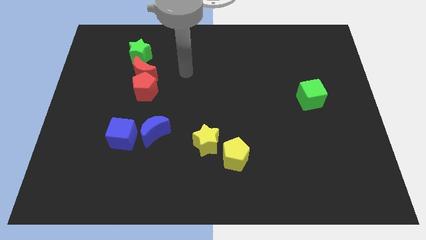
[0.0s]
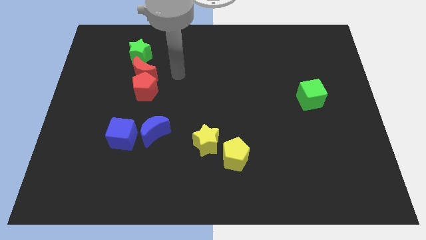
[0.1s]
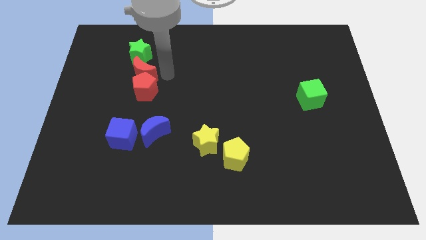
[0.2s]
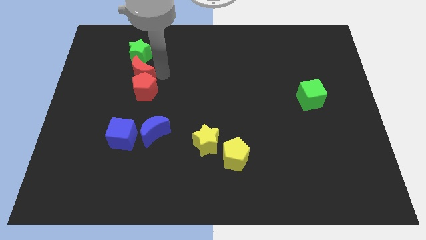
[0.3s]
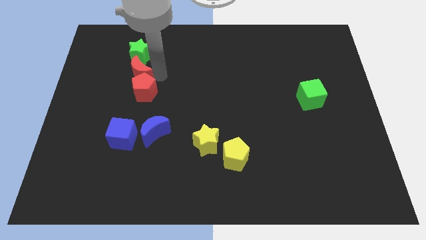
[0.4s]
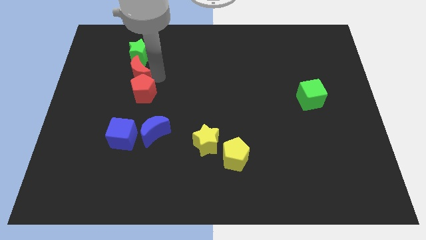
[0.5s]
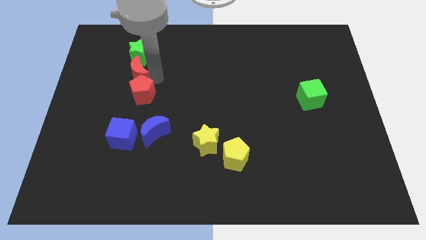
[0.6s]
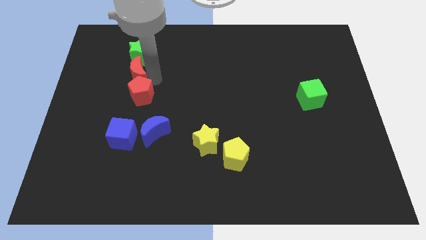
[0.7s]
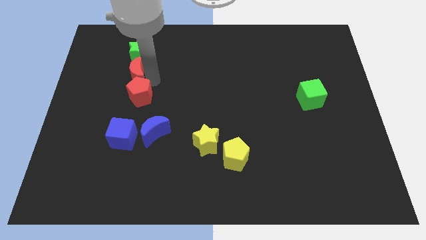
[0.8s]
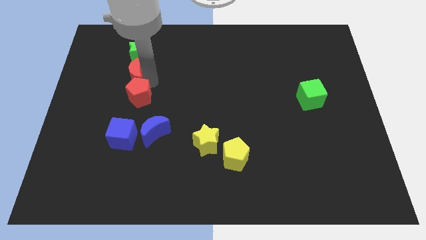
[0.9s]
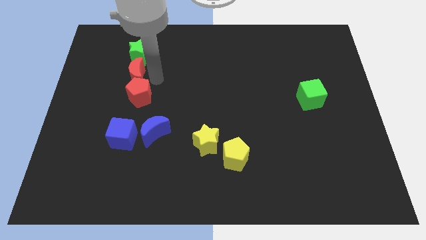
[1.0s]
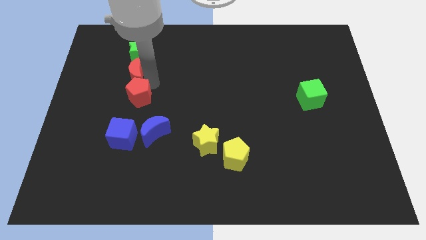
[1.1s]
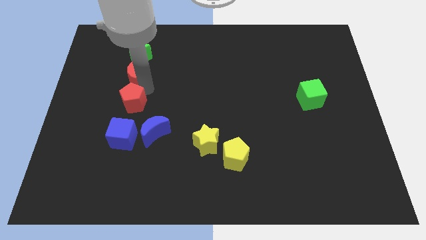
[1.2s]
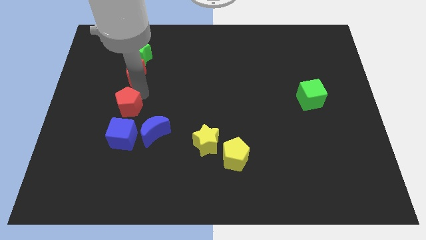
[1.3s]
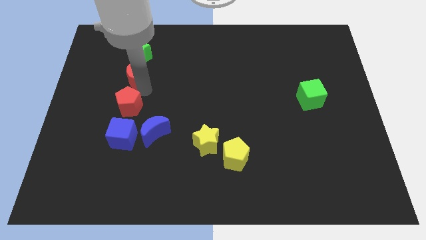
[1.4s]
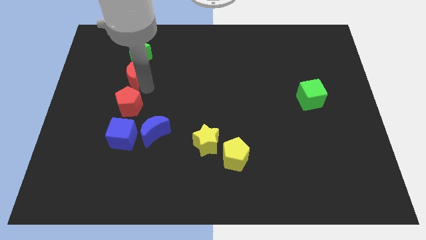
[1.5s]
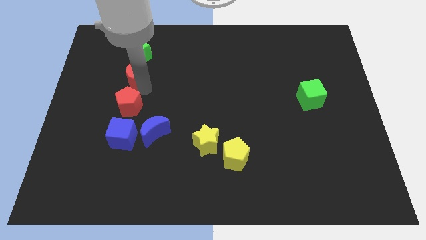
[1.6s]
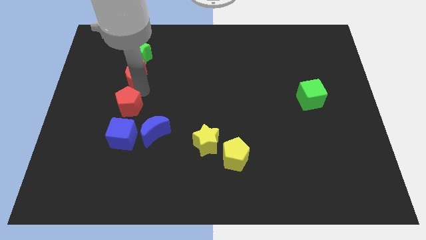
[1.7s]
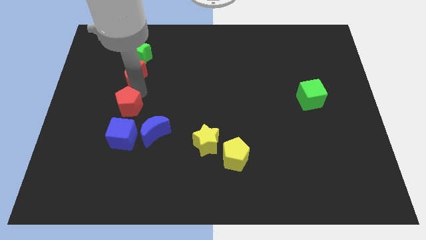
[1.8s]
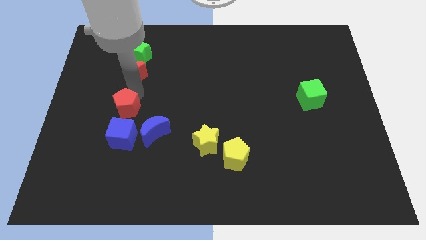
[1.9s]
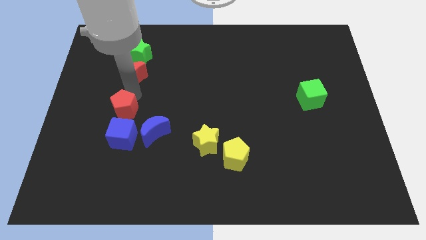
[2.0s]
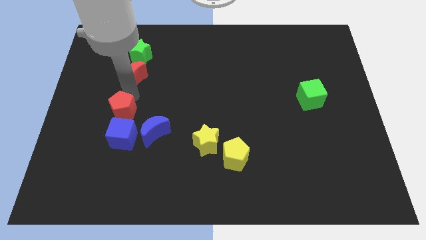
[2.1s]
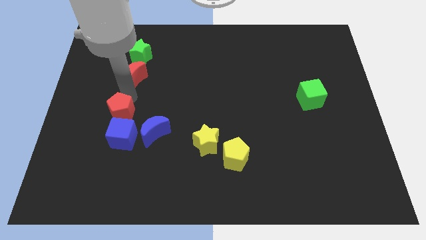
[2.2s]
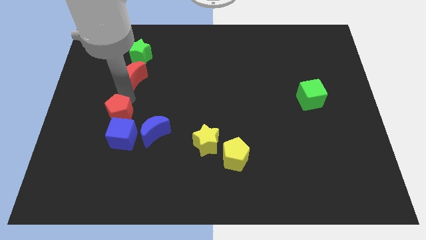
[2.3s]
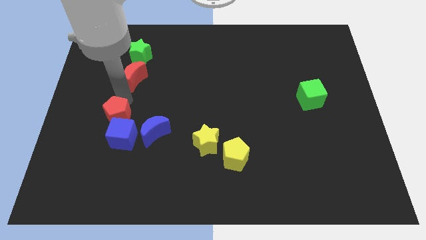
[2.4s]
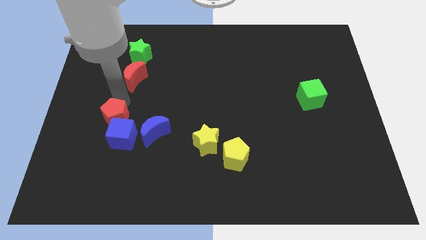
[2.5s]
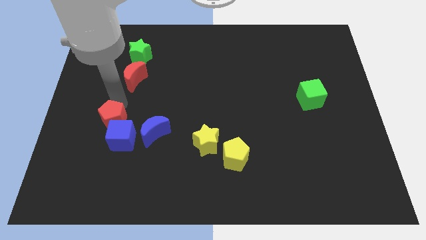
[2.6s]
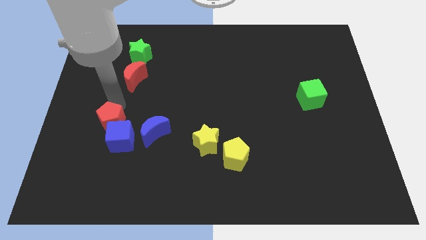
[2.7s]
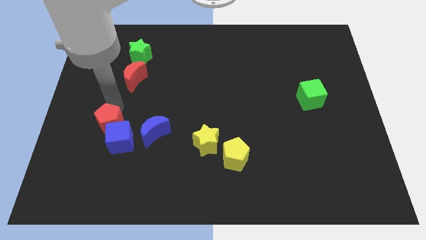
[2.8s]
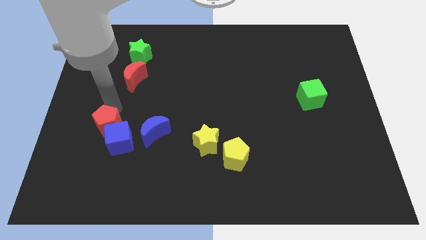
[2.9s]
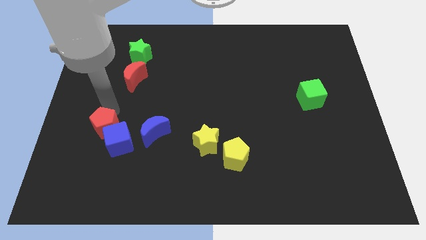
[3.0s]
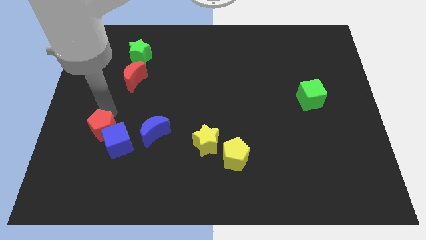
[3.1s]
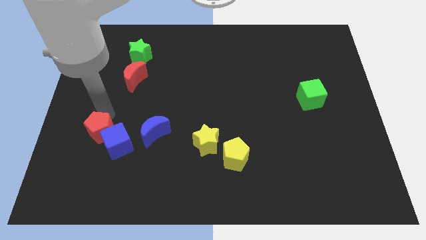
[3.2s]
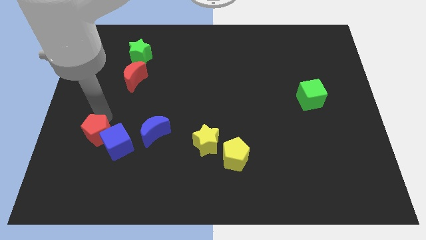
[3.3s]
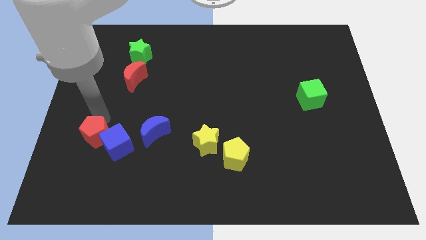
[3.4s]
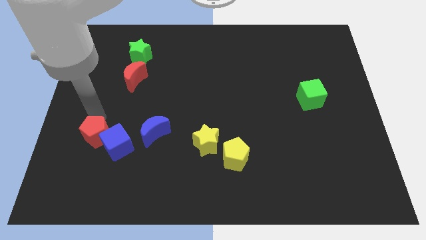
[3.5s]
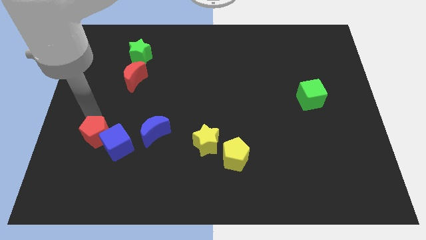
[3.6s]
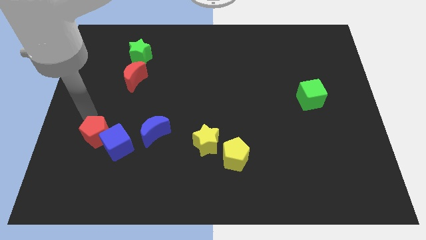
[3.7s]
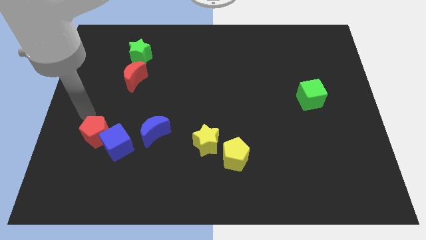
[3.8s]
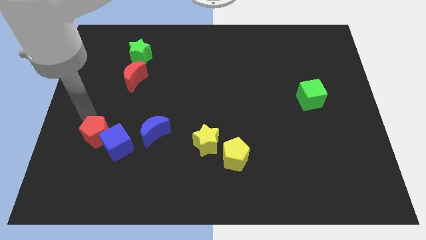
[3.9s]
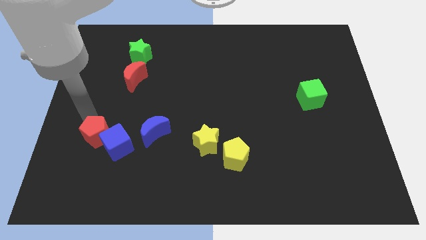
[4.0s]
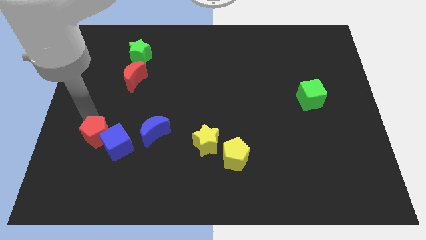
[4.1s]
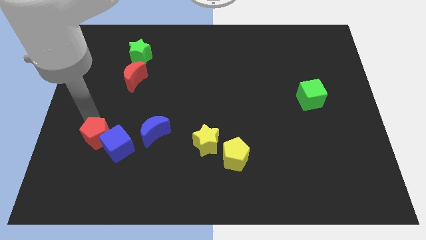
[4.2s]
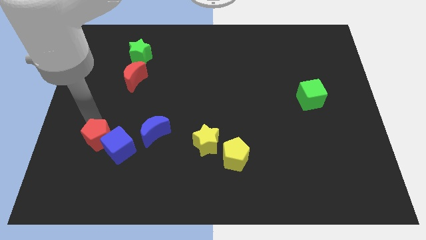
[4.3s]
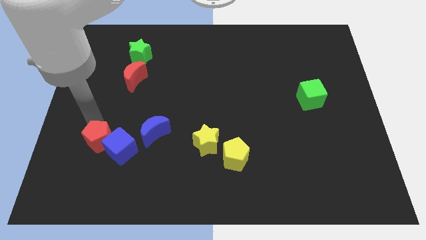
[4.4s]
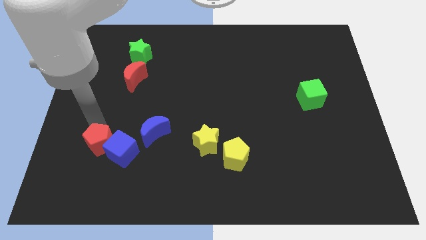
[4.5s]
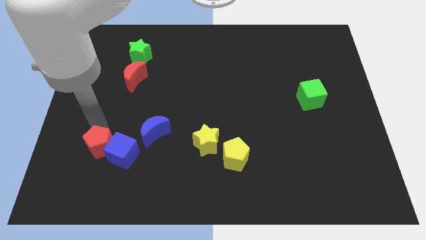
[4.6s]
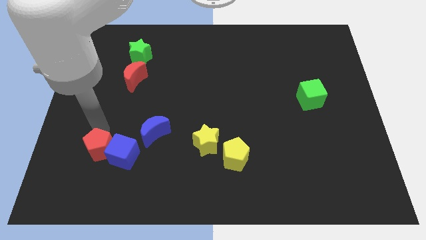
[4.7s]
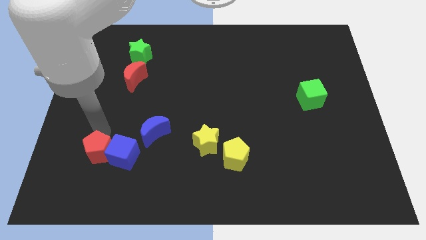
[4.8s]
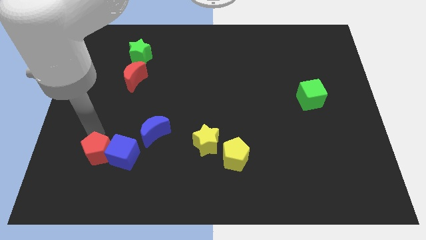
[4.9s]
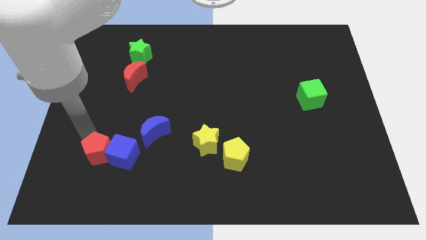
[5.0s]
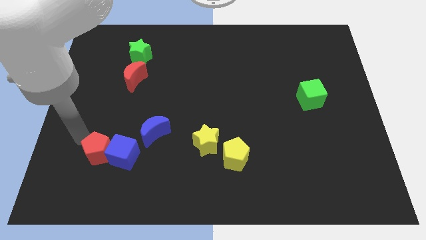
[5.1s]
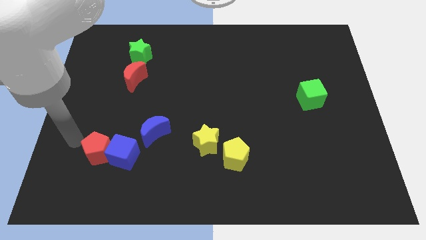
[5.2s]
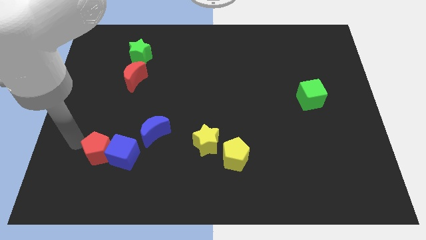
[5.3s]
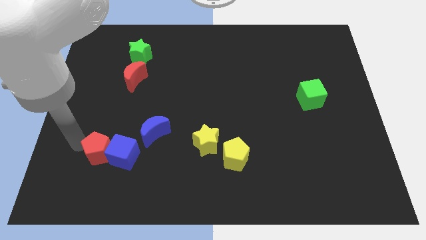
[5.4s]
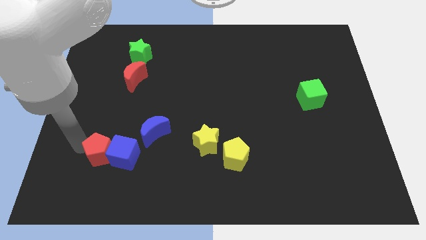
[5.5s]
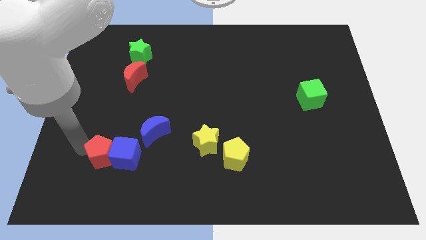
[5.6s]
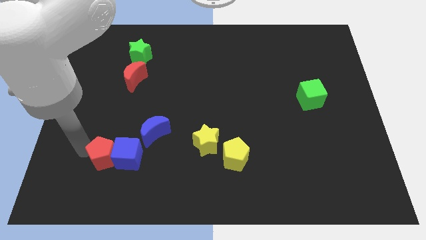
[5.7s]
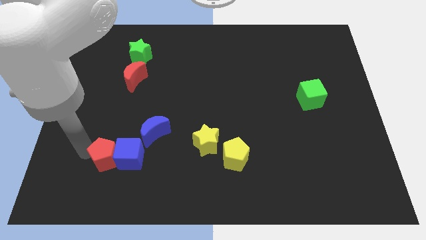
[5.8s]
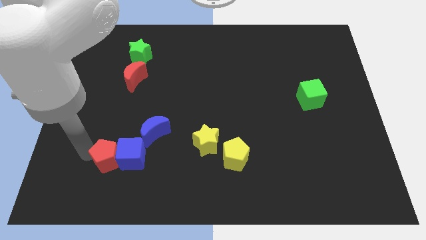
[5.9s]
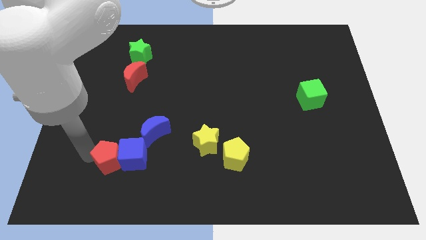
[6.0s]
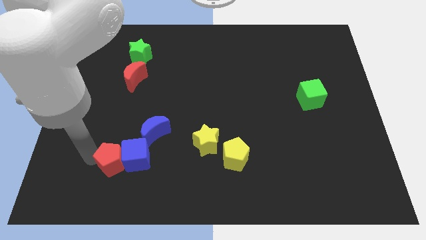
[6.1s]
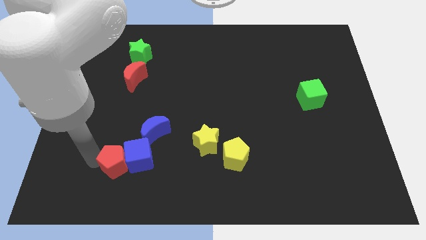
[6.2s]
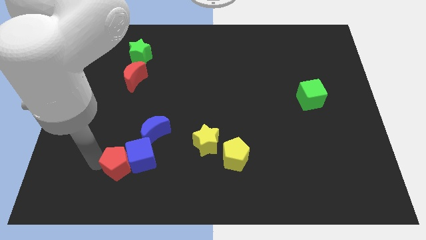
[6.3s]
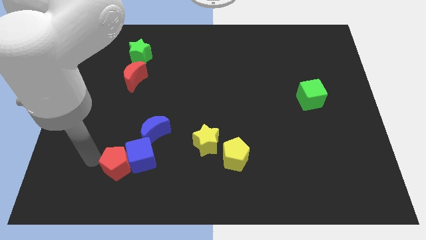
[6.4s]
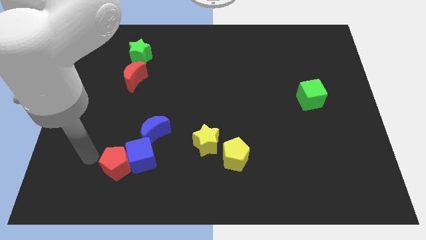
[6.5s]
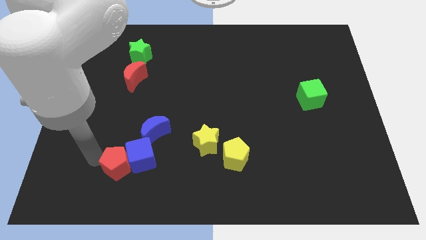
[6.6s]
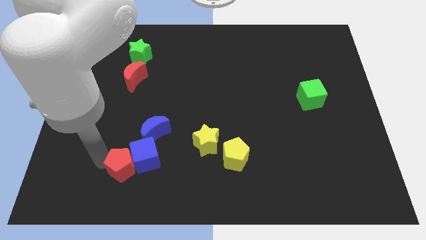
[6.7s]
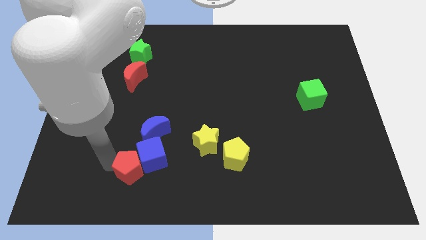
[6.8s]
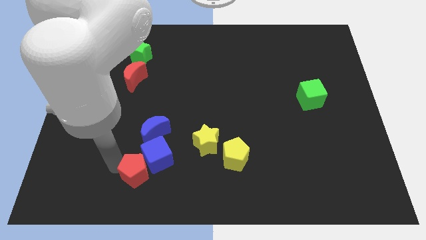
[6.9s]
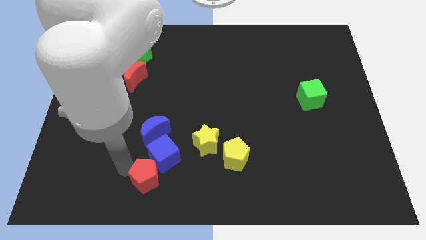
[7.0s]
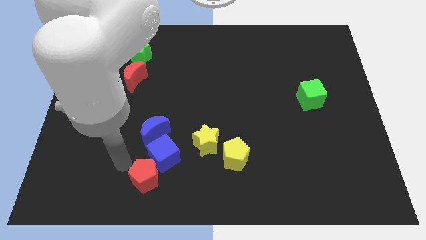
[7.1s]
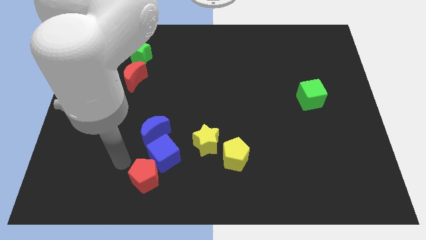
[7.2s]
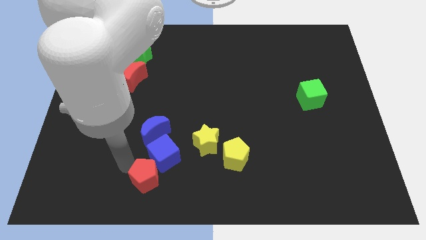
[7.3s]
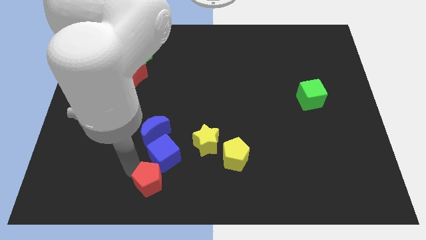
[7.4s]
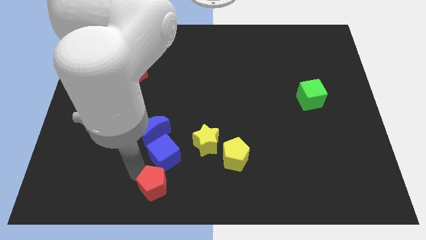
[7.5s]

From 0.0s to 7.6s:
put the red pentagon to the bottom
